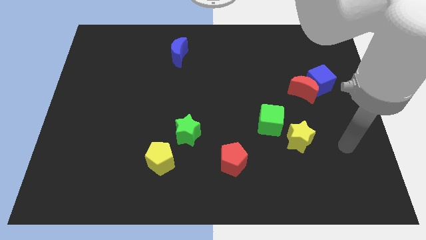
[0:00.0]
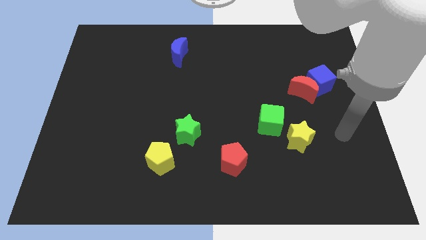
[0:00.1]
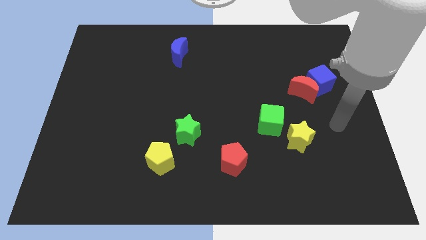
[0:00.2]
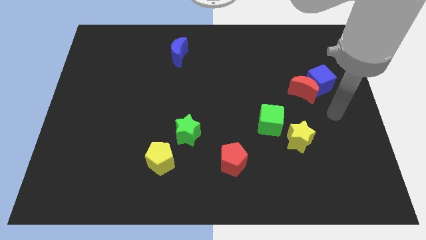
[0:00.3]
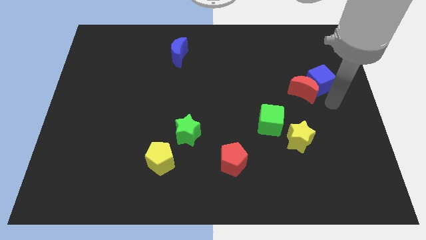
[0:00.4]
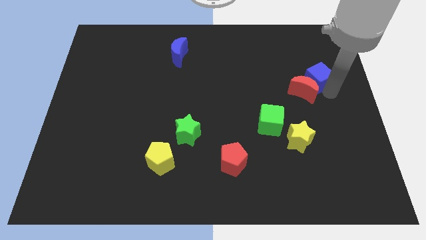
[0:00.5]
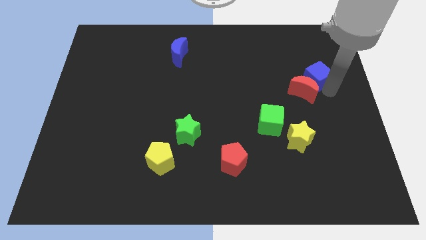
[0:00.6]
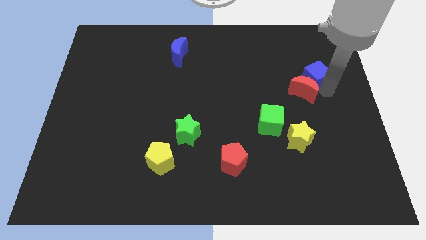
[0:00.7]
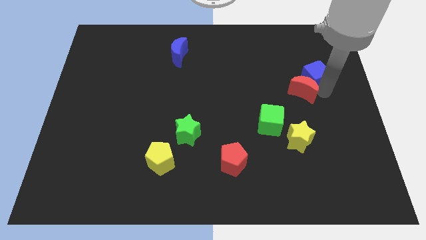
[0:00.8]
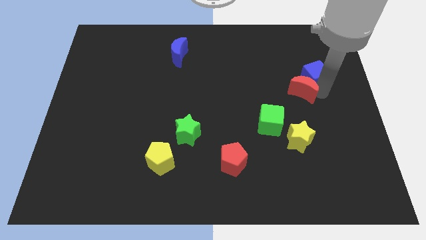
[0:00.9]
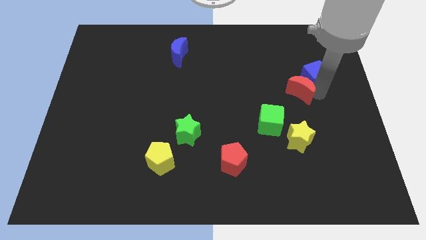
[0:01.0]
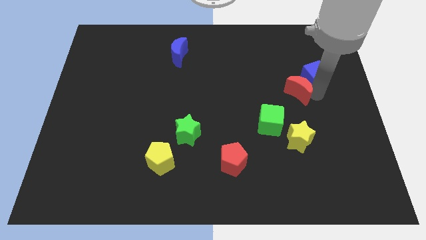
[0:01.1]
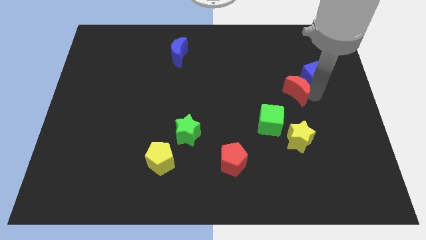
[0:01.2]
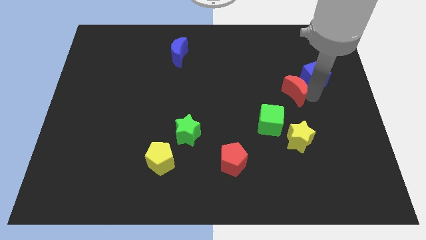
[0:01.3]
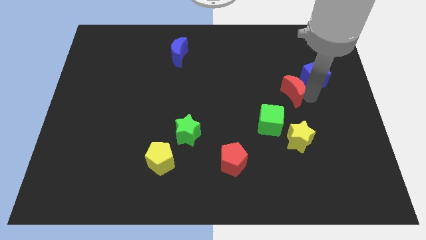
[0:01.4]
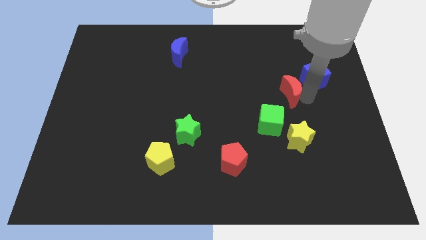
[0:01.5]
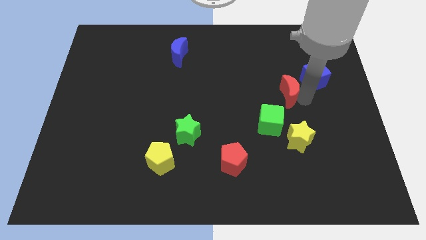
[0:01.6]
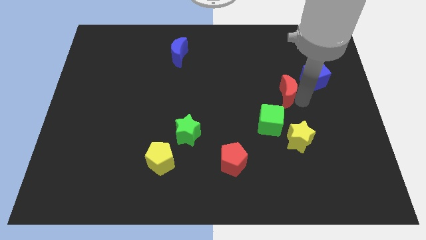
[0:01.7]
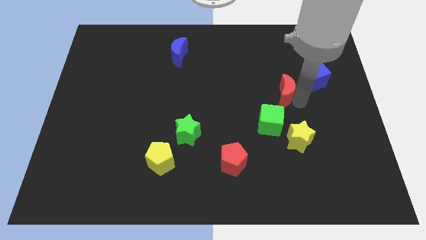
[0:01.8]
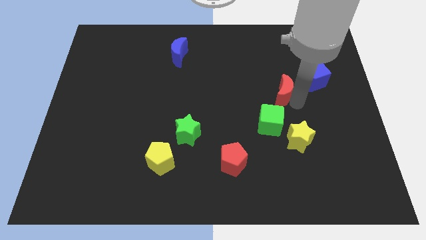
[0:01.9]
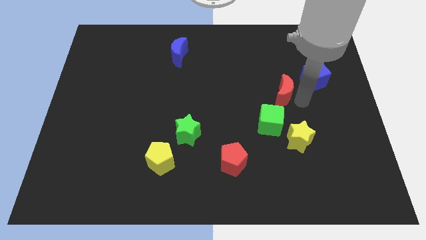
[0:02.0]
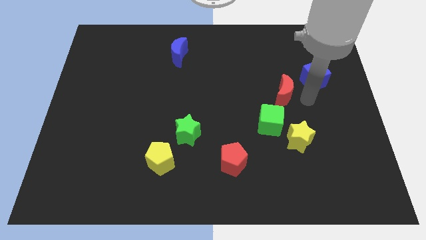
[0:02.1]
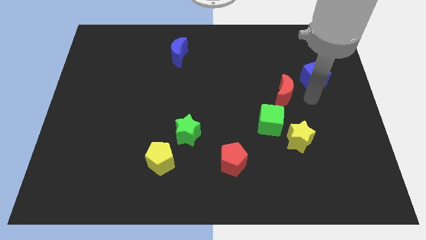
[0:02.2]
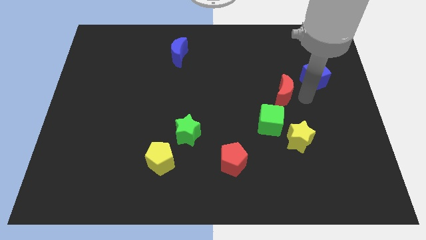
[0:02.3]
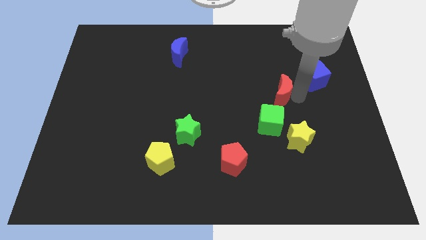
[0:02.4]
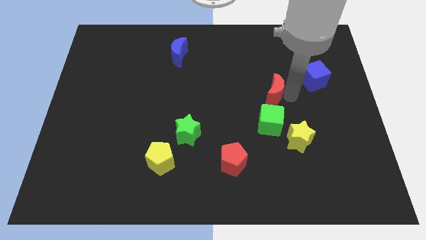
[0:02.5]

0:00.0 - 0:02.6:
slightly move the red moon to the left

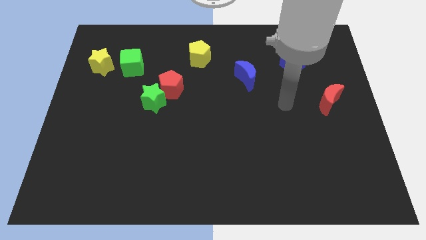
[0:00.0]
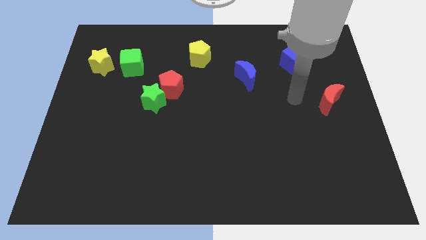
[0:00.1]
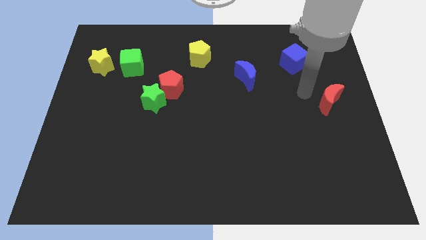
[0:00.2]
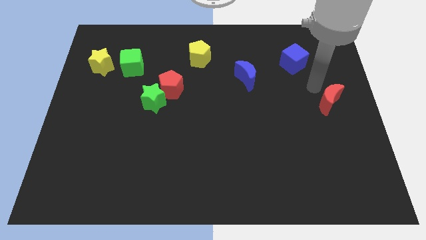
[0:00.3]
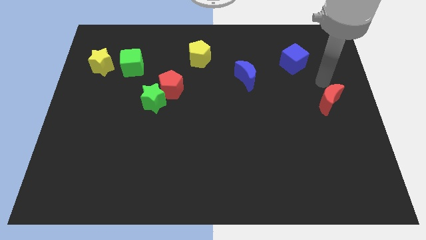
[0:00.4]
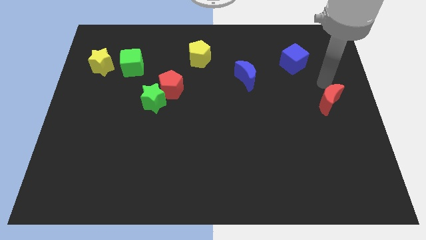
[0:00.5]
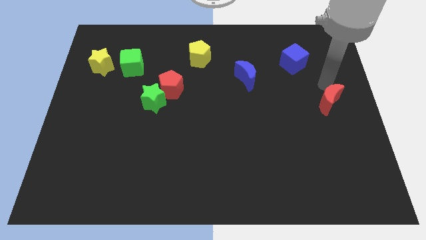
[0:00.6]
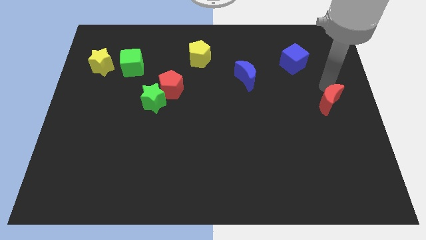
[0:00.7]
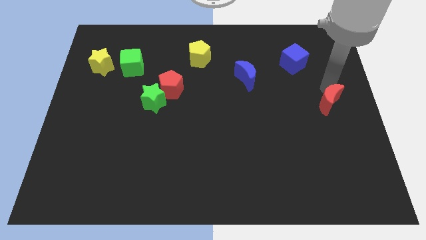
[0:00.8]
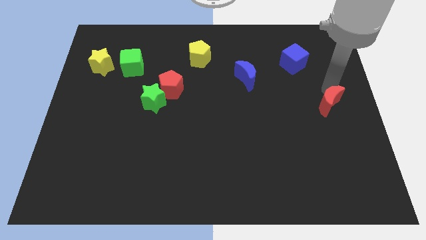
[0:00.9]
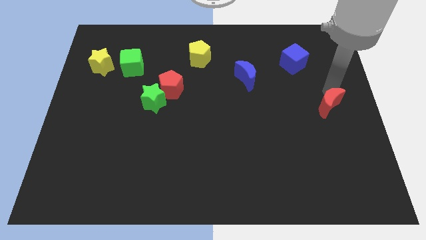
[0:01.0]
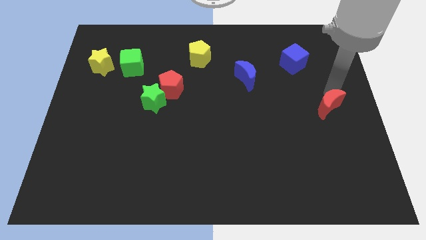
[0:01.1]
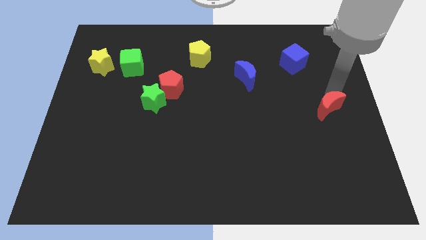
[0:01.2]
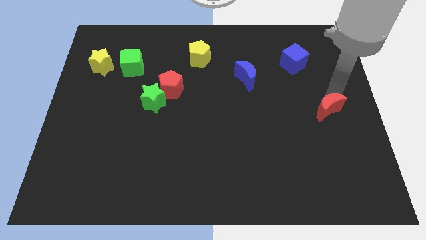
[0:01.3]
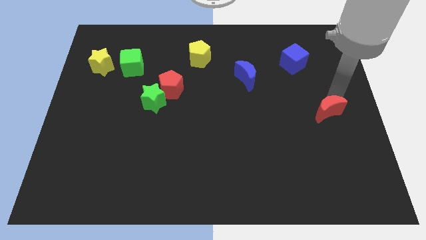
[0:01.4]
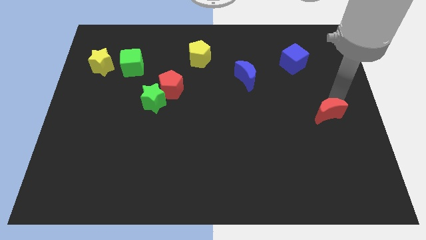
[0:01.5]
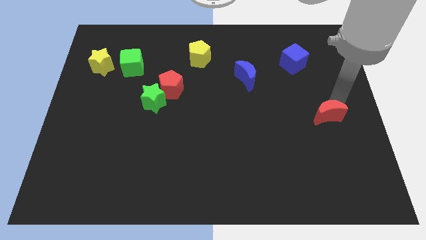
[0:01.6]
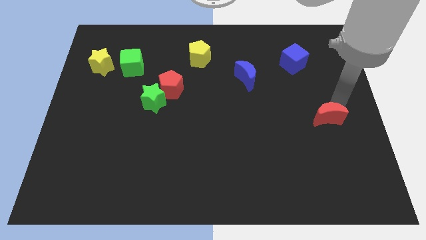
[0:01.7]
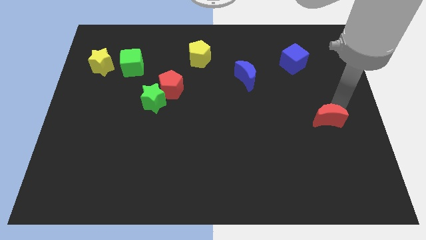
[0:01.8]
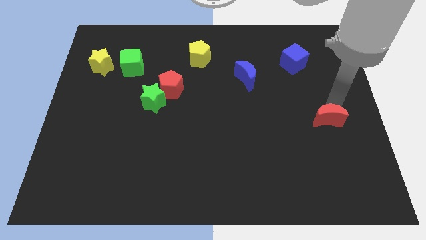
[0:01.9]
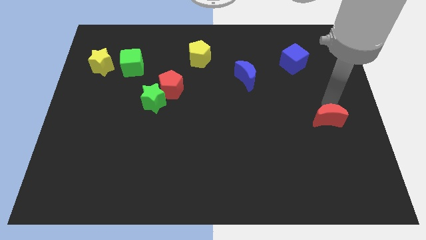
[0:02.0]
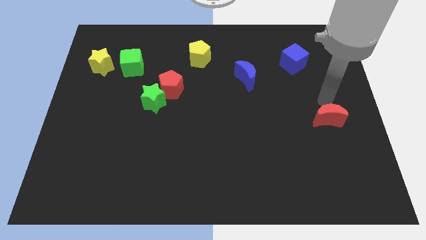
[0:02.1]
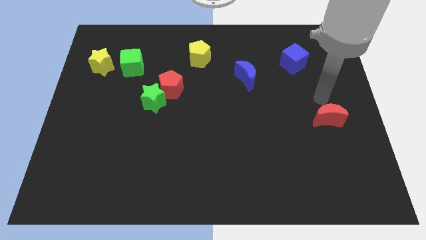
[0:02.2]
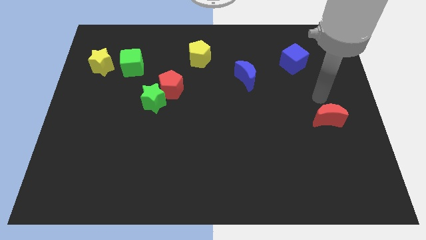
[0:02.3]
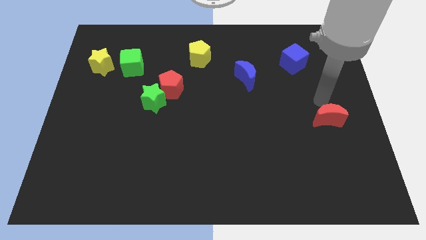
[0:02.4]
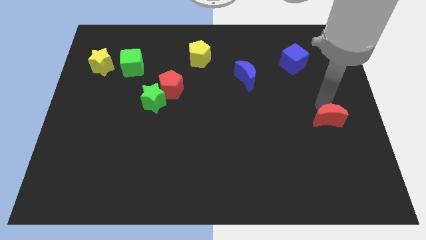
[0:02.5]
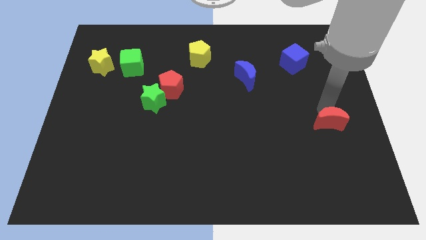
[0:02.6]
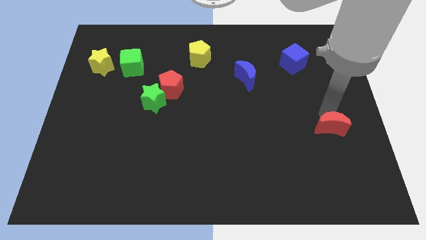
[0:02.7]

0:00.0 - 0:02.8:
slightly slide the red moon down

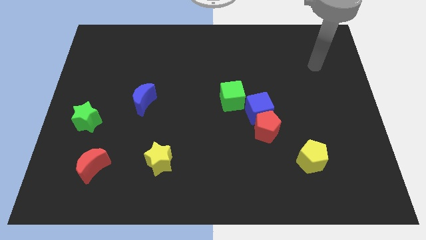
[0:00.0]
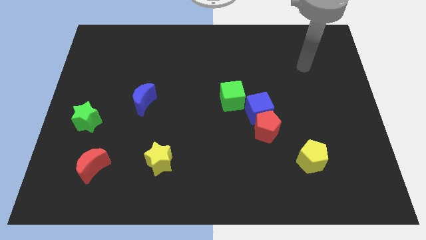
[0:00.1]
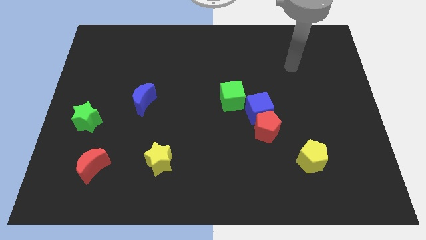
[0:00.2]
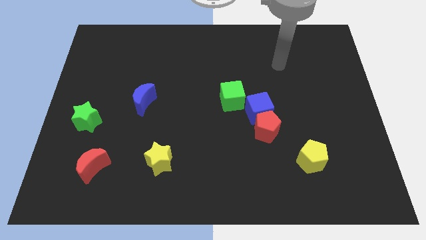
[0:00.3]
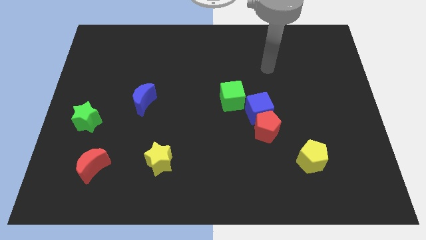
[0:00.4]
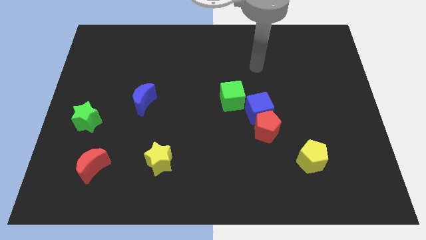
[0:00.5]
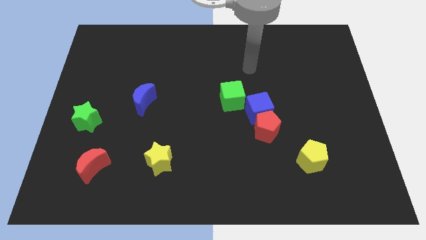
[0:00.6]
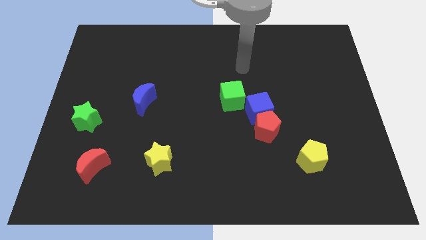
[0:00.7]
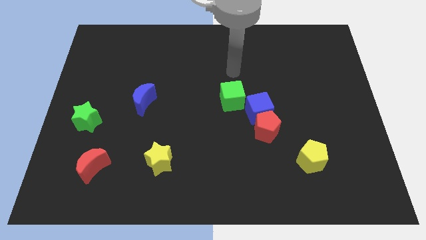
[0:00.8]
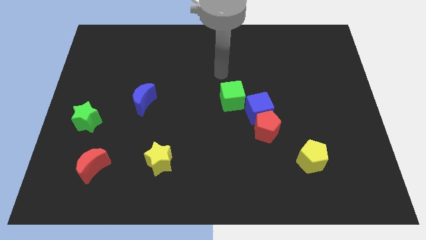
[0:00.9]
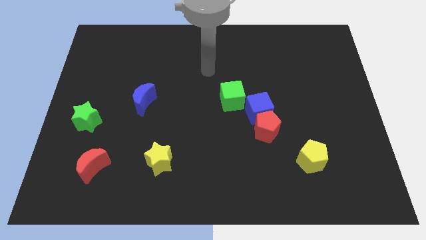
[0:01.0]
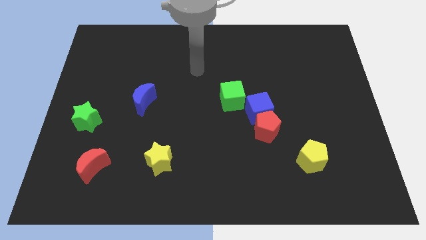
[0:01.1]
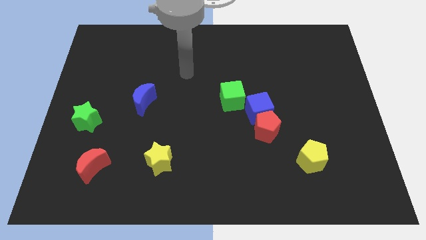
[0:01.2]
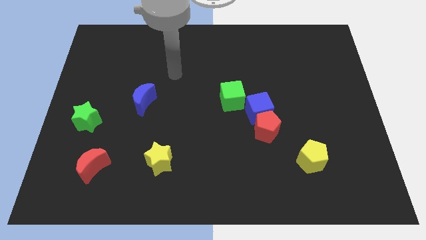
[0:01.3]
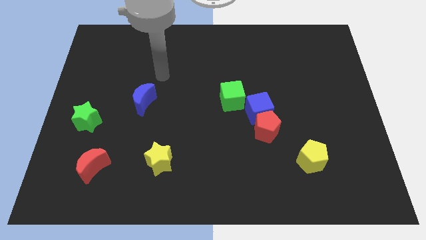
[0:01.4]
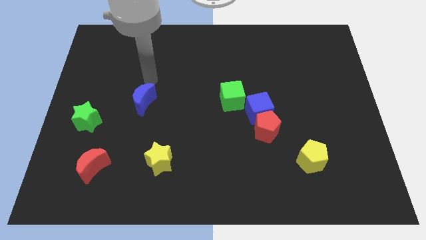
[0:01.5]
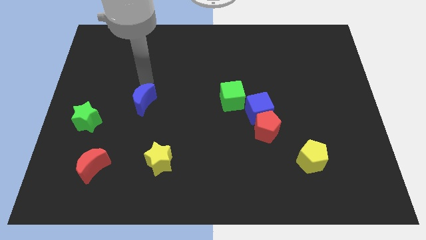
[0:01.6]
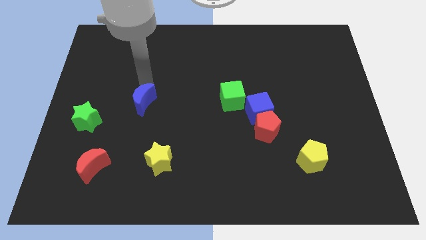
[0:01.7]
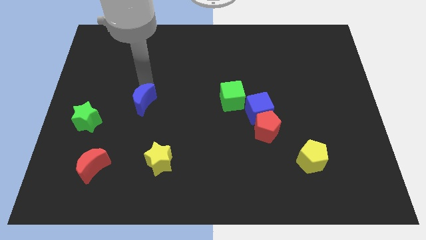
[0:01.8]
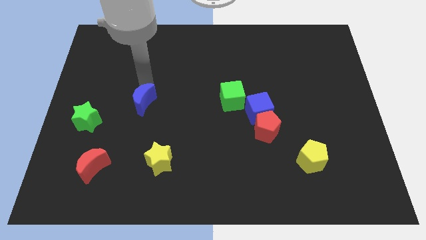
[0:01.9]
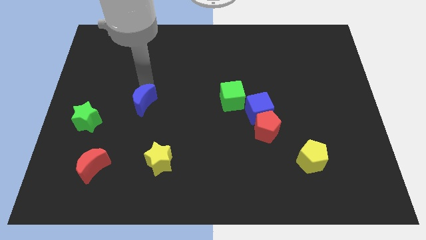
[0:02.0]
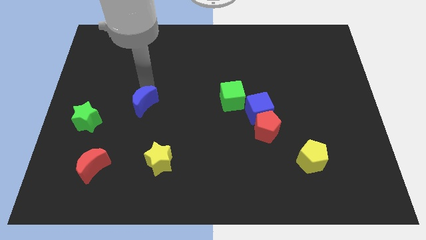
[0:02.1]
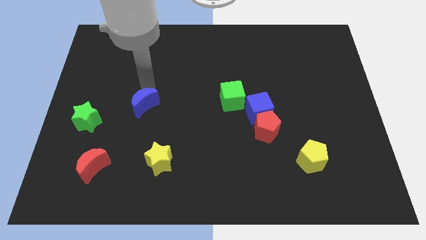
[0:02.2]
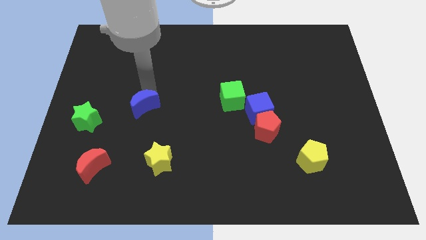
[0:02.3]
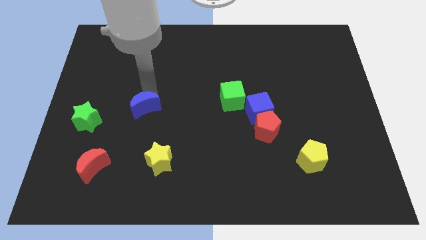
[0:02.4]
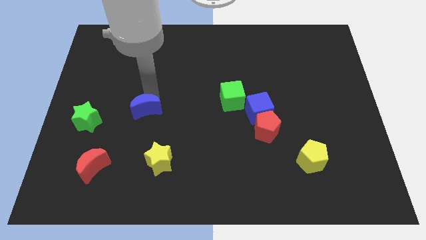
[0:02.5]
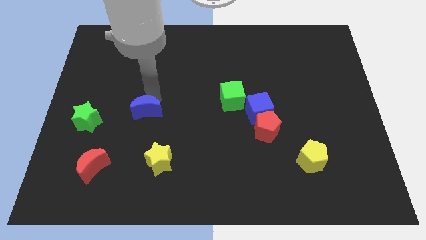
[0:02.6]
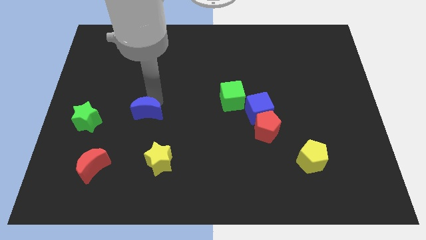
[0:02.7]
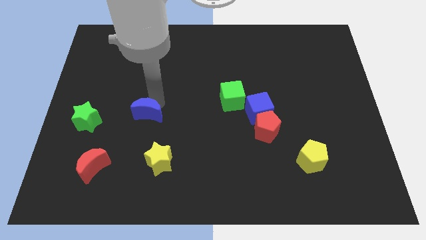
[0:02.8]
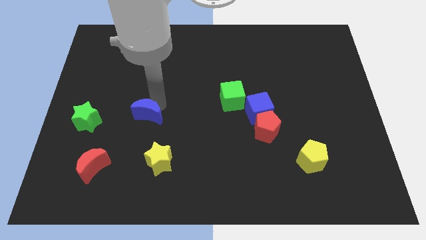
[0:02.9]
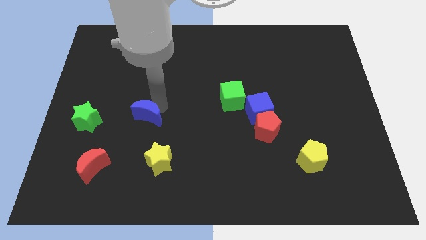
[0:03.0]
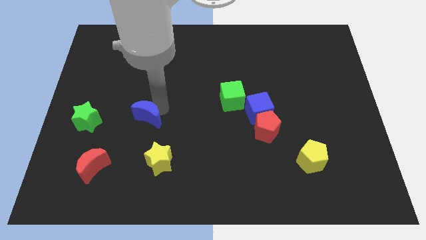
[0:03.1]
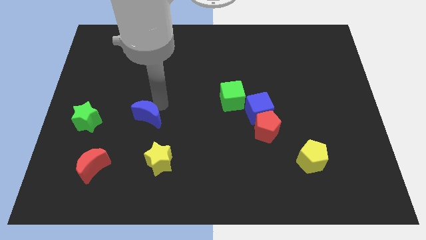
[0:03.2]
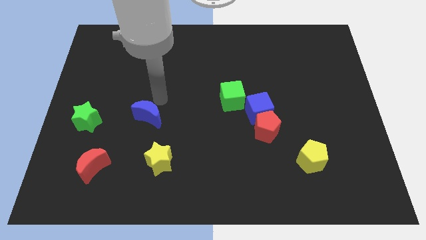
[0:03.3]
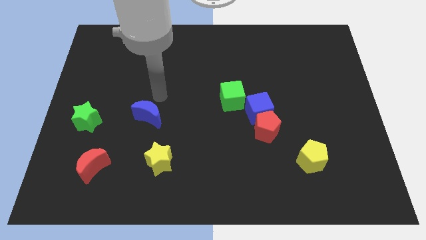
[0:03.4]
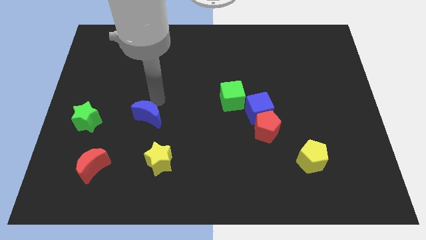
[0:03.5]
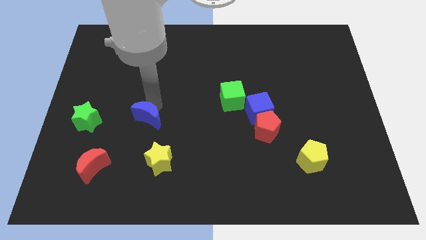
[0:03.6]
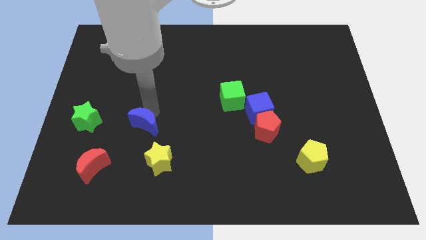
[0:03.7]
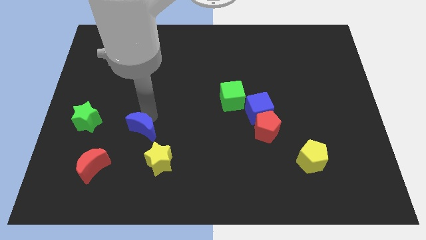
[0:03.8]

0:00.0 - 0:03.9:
move the blue moon downwards a bit
